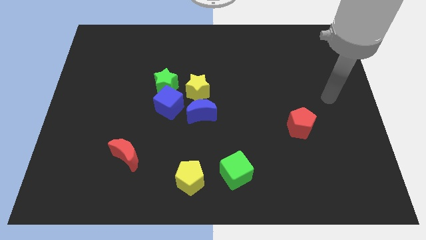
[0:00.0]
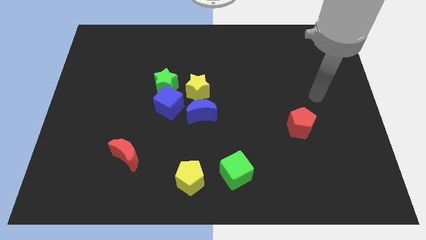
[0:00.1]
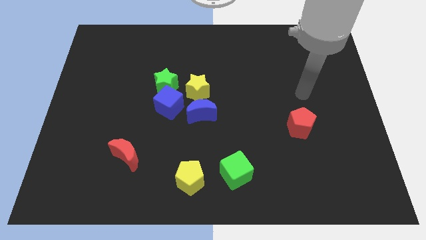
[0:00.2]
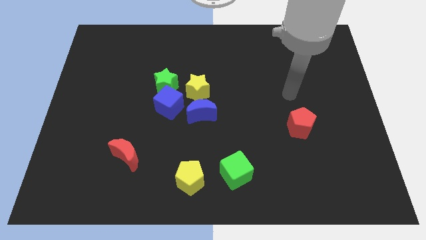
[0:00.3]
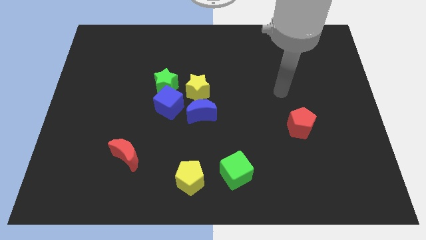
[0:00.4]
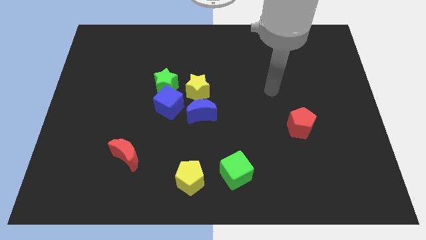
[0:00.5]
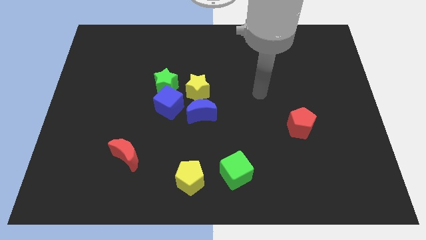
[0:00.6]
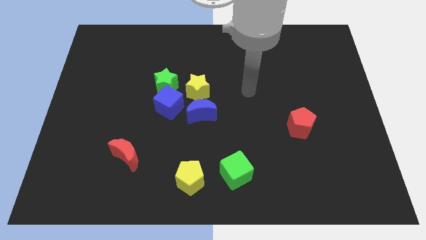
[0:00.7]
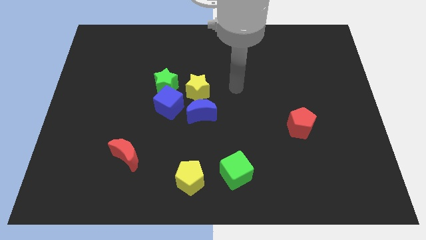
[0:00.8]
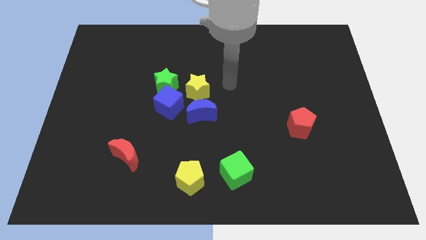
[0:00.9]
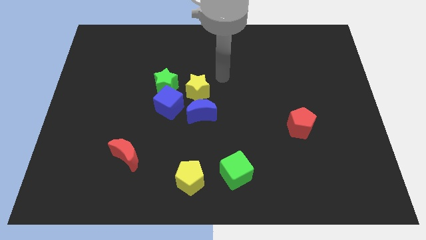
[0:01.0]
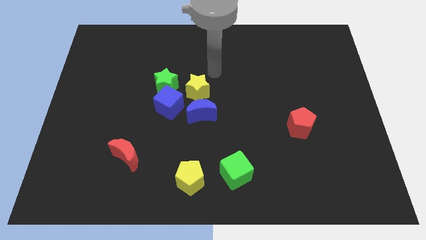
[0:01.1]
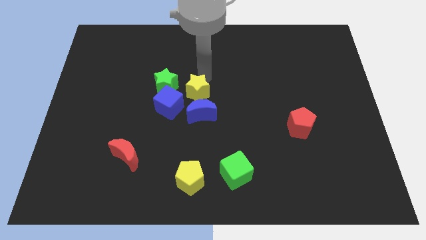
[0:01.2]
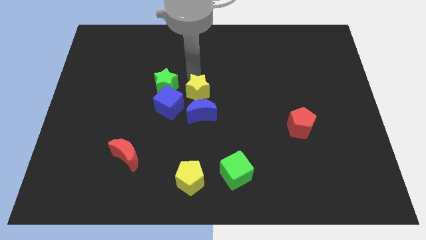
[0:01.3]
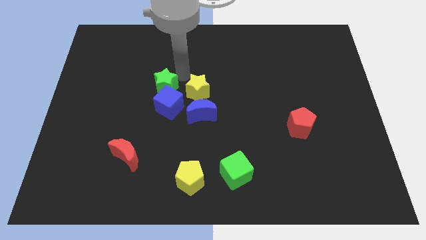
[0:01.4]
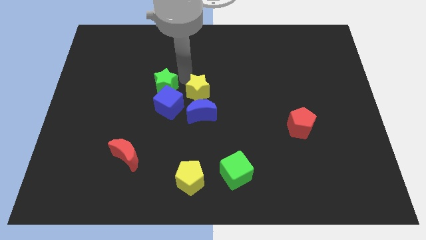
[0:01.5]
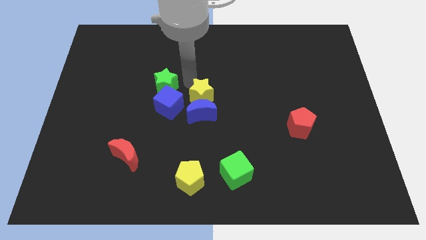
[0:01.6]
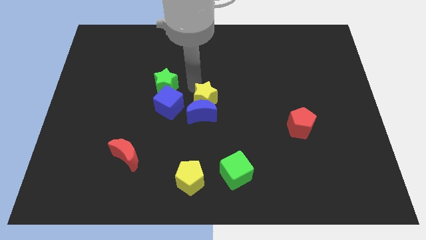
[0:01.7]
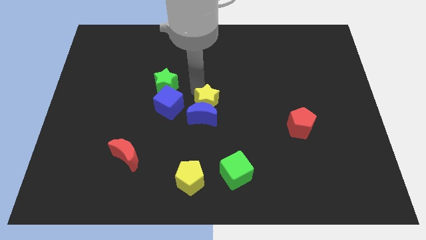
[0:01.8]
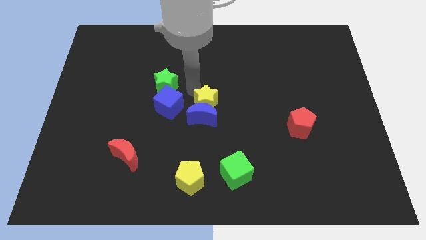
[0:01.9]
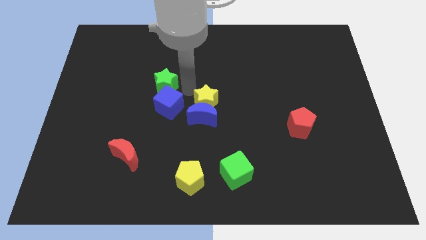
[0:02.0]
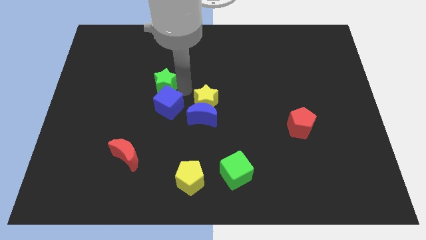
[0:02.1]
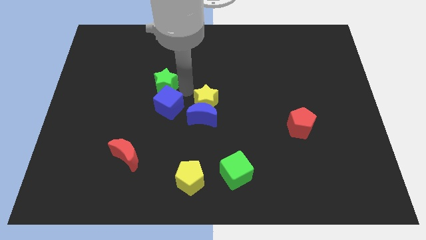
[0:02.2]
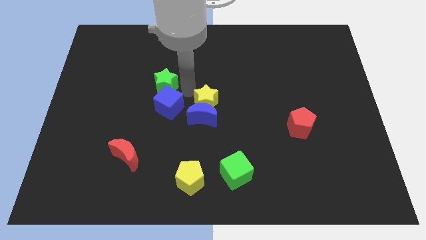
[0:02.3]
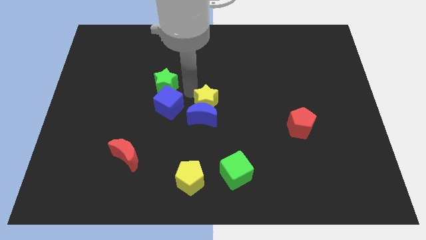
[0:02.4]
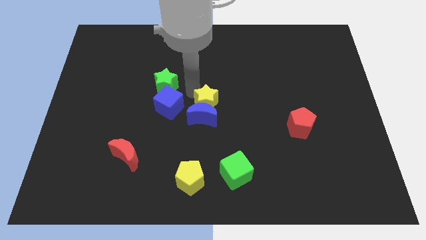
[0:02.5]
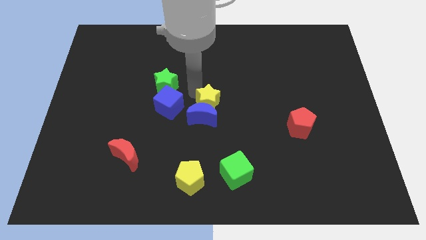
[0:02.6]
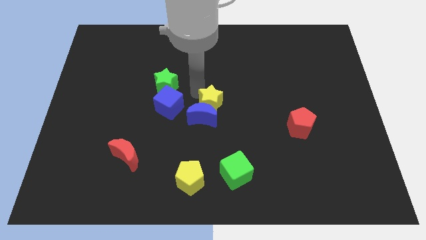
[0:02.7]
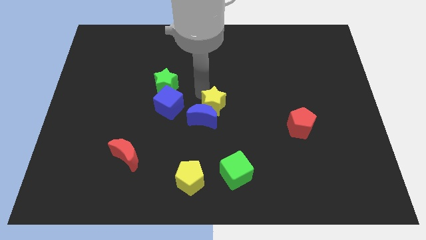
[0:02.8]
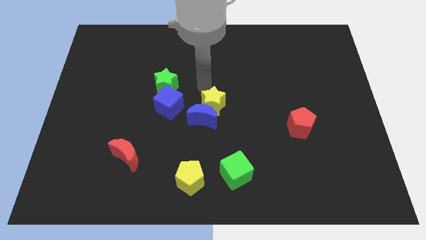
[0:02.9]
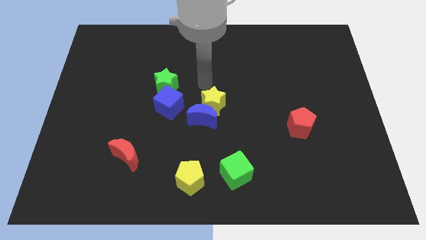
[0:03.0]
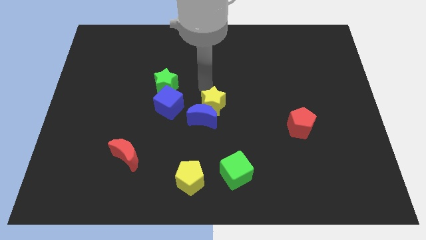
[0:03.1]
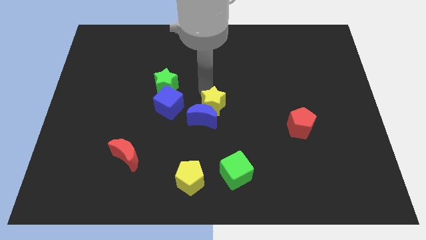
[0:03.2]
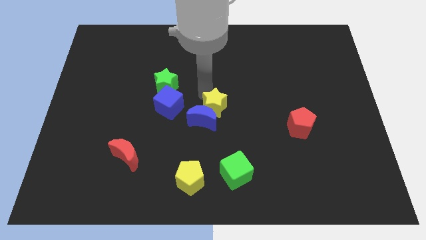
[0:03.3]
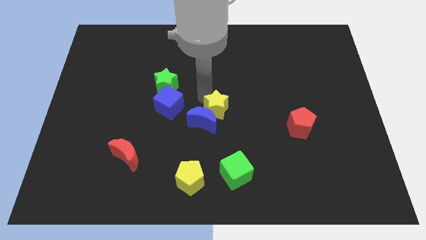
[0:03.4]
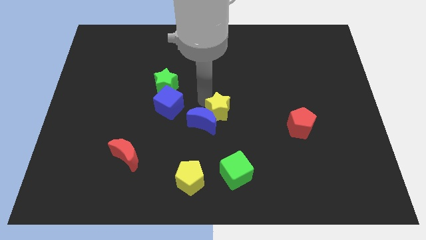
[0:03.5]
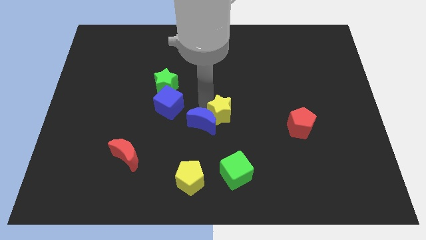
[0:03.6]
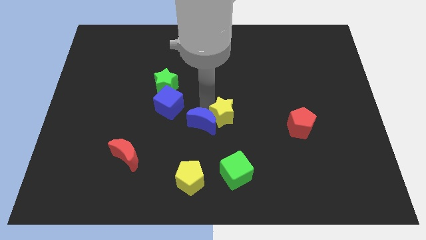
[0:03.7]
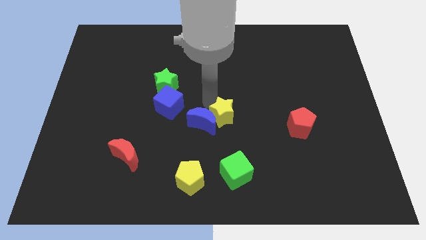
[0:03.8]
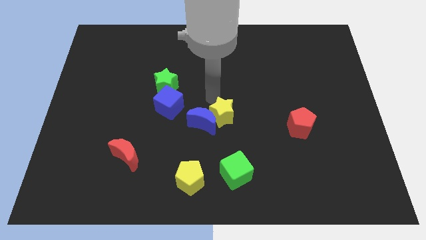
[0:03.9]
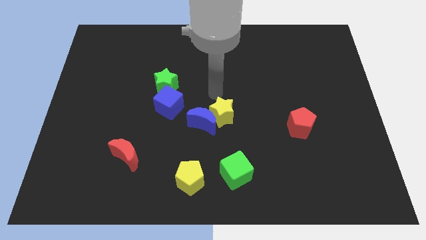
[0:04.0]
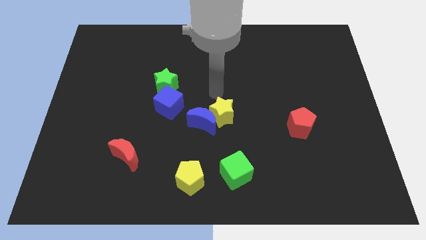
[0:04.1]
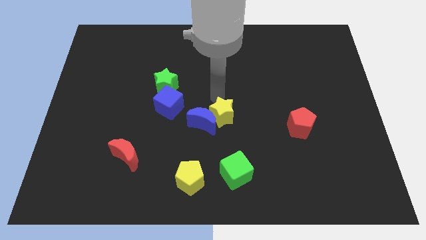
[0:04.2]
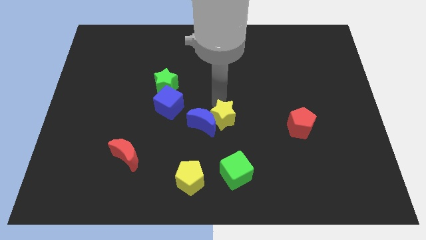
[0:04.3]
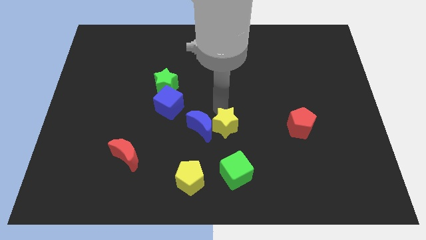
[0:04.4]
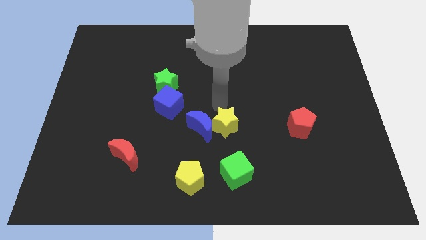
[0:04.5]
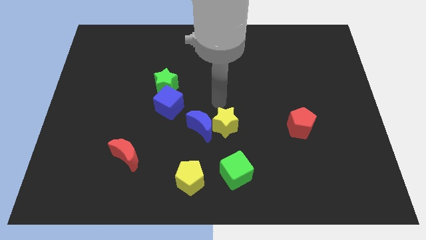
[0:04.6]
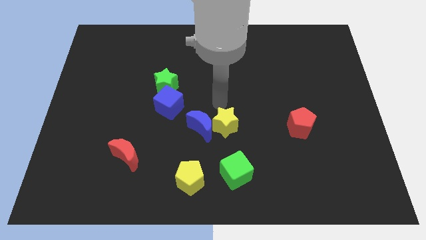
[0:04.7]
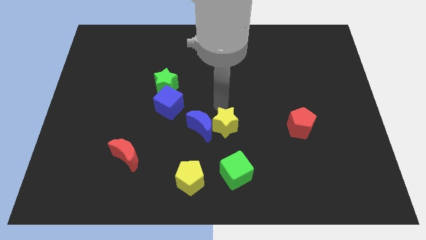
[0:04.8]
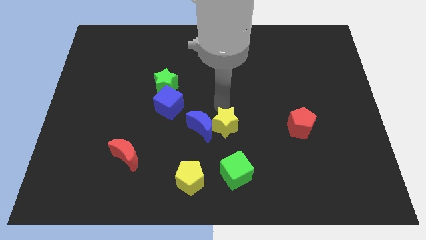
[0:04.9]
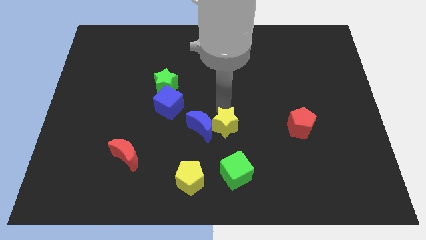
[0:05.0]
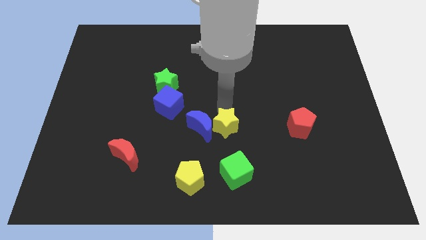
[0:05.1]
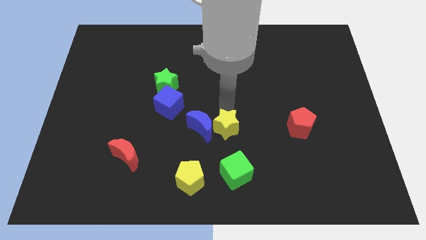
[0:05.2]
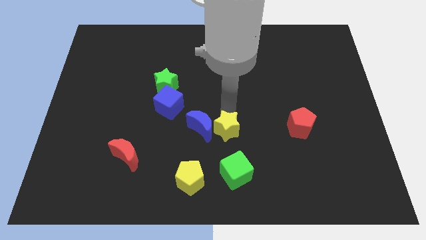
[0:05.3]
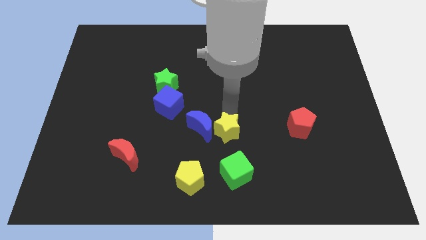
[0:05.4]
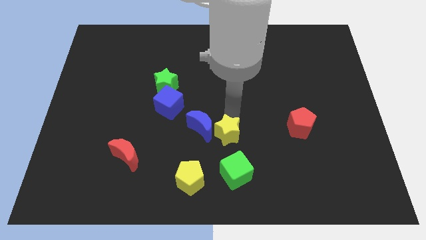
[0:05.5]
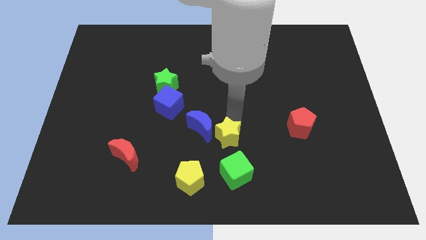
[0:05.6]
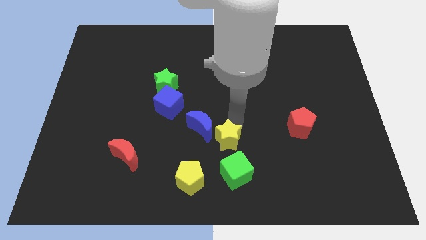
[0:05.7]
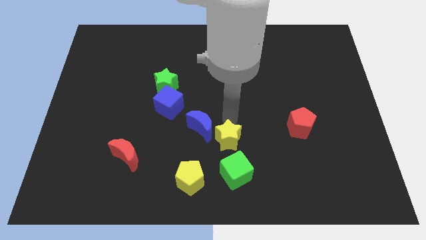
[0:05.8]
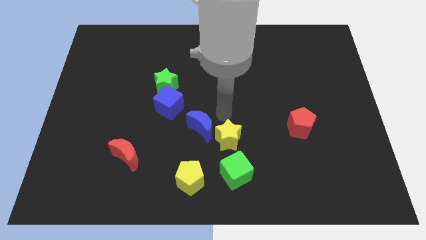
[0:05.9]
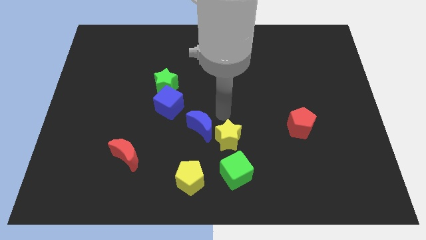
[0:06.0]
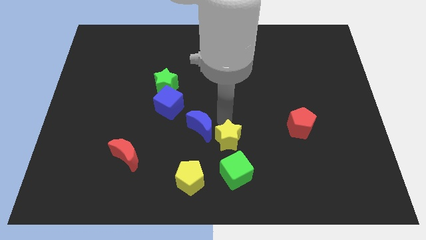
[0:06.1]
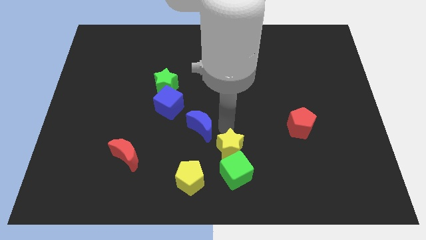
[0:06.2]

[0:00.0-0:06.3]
push the yellow star next to the green cube
